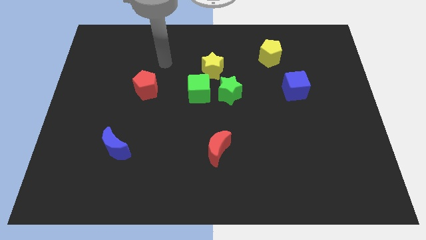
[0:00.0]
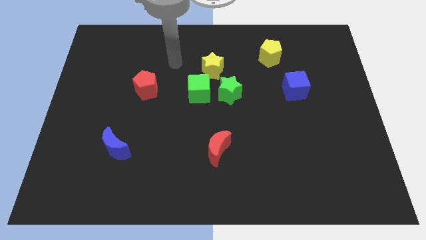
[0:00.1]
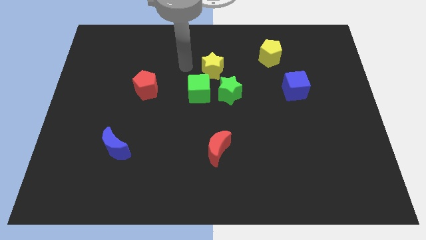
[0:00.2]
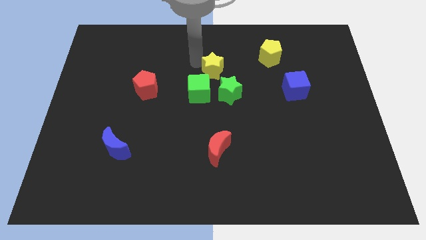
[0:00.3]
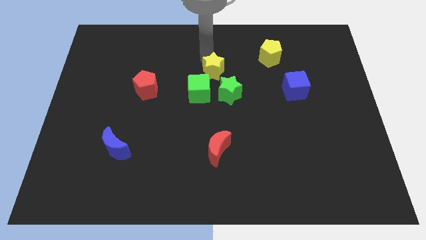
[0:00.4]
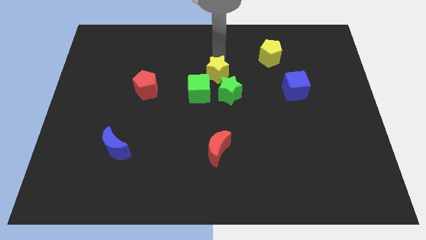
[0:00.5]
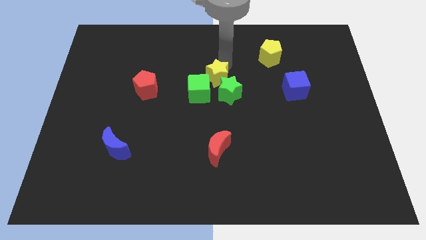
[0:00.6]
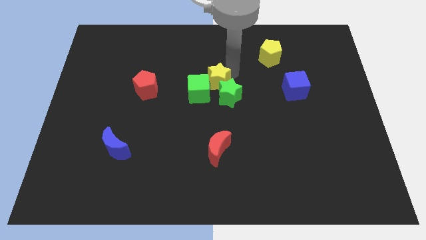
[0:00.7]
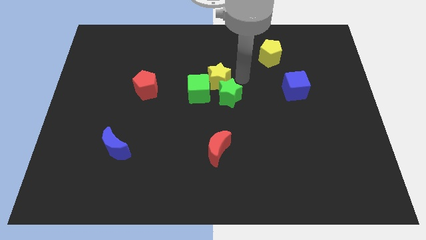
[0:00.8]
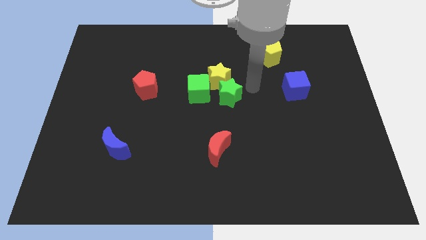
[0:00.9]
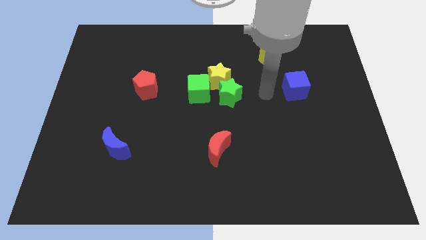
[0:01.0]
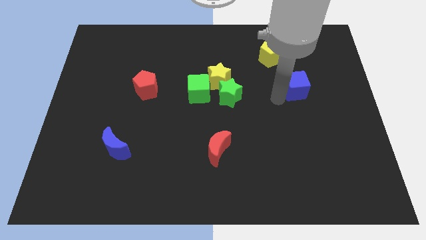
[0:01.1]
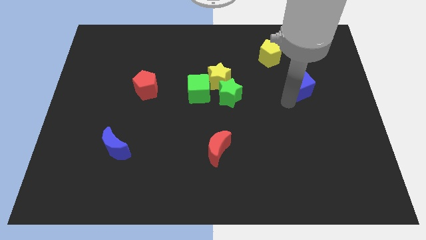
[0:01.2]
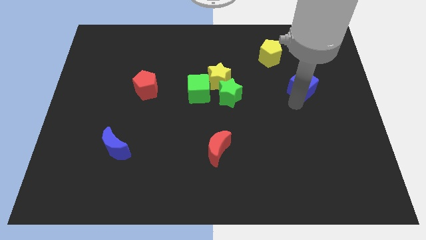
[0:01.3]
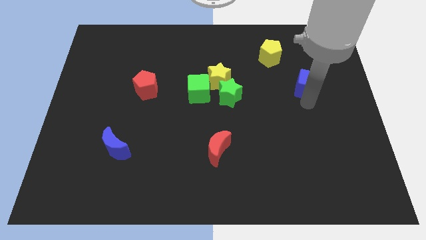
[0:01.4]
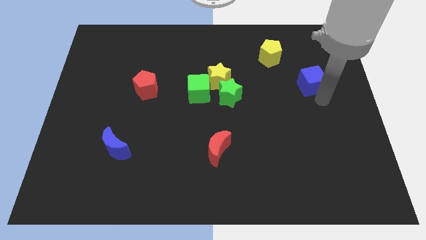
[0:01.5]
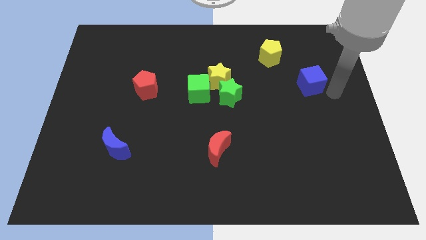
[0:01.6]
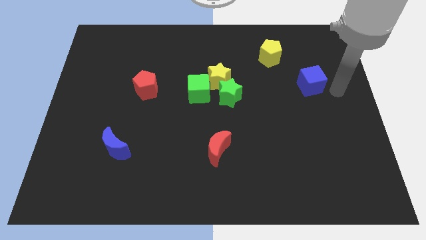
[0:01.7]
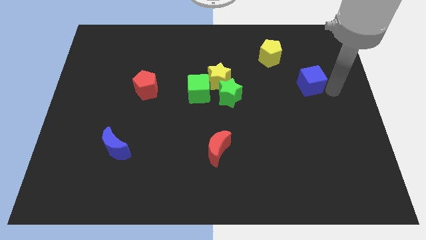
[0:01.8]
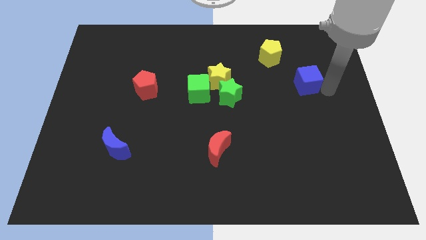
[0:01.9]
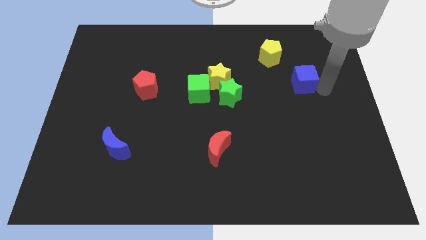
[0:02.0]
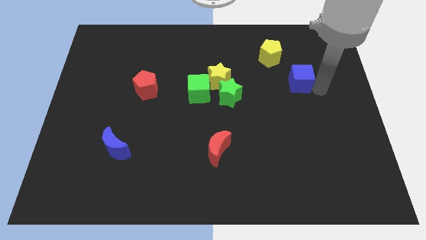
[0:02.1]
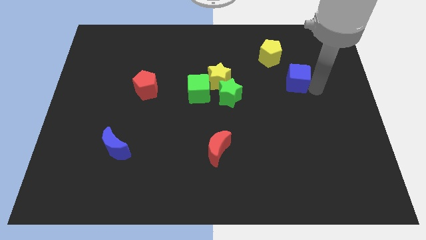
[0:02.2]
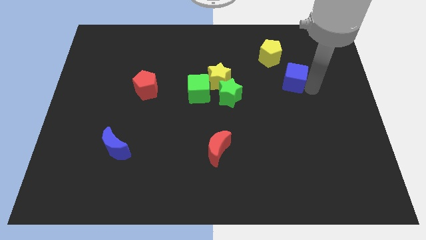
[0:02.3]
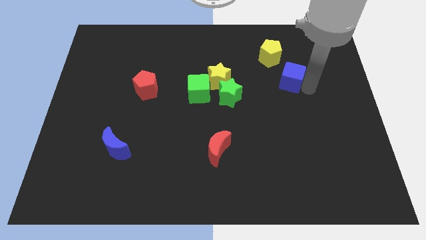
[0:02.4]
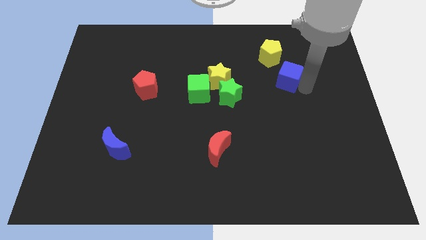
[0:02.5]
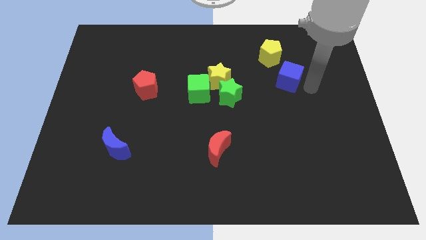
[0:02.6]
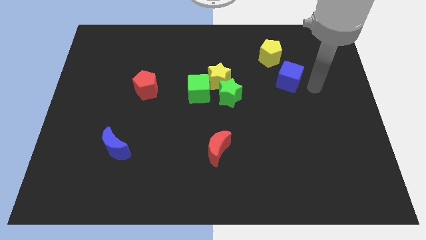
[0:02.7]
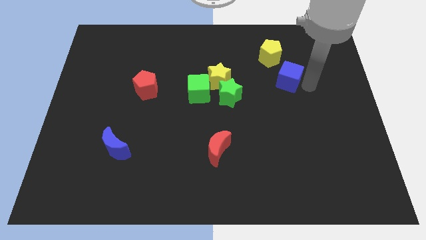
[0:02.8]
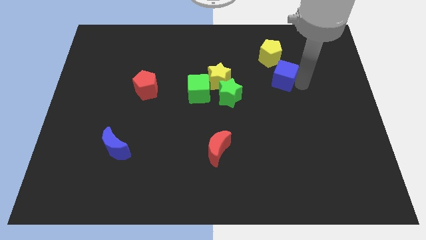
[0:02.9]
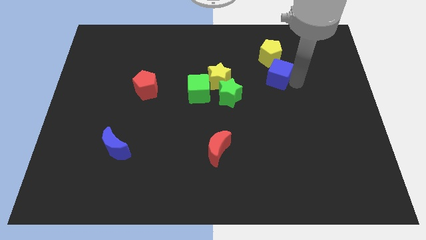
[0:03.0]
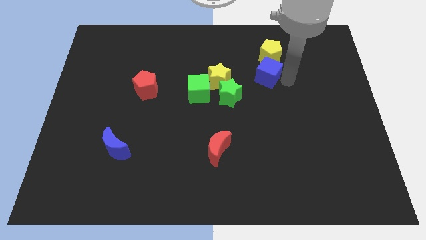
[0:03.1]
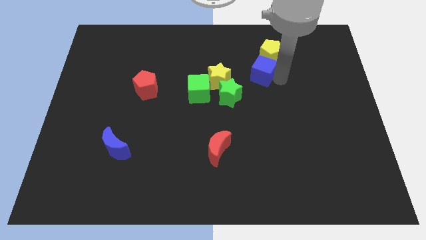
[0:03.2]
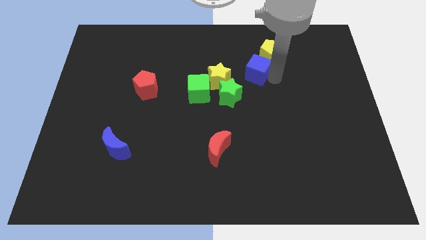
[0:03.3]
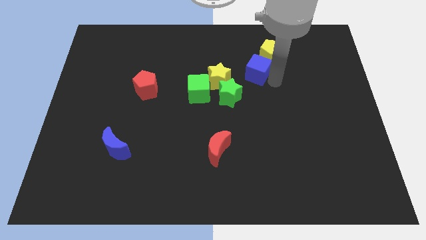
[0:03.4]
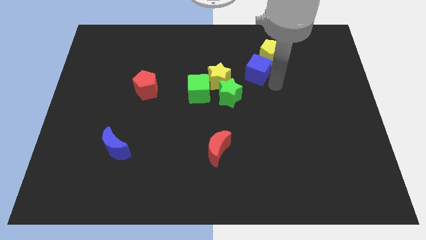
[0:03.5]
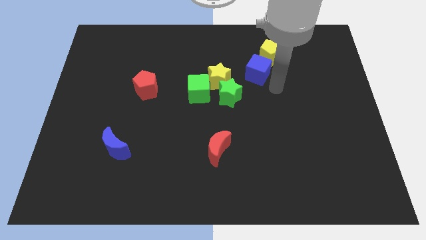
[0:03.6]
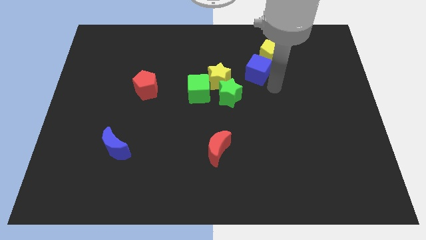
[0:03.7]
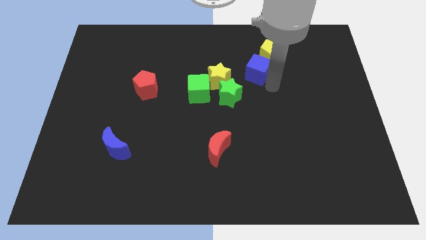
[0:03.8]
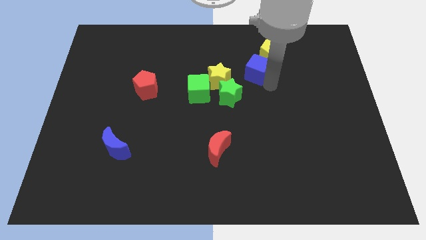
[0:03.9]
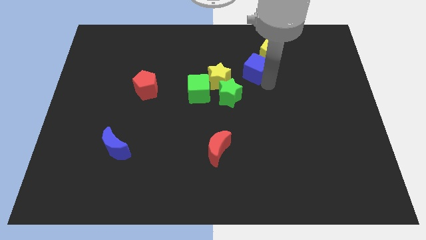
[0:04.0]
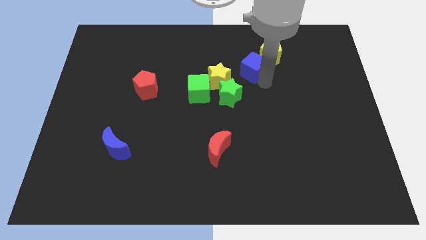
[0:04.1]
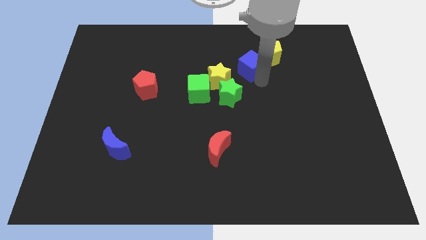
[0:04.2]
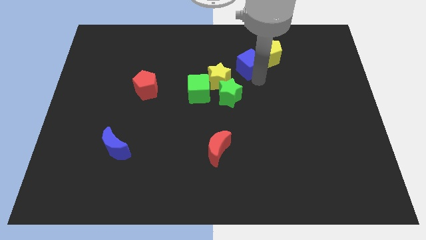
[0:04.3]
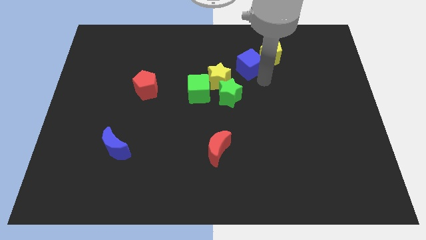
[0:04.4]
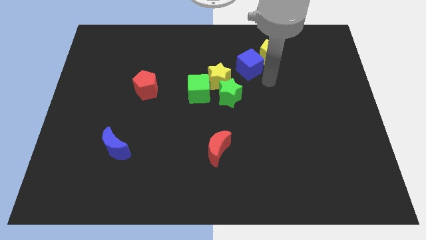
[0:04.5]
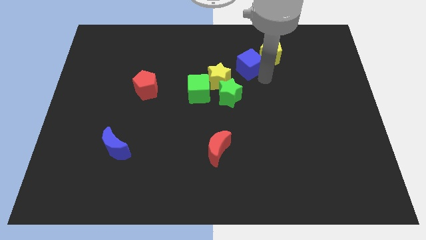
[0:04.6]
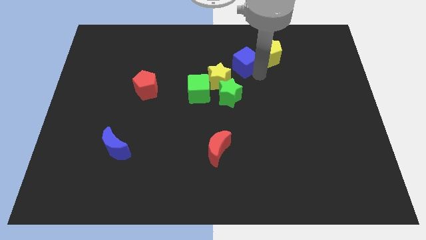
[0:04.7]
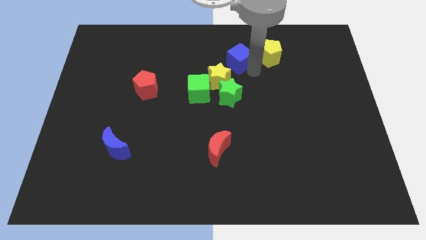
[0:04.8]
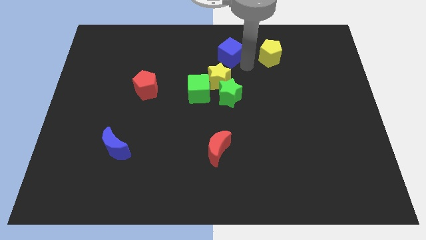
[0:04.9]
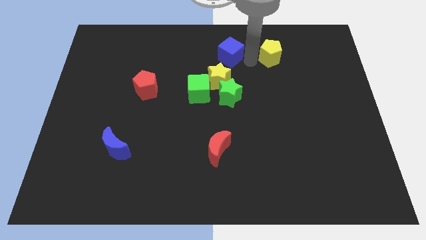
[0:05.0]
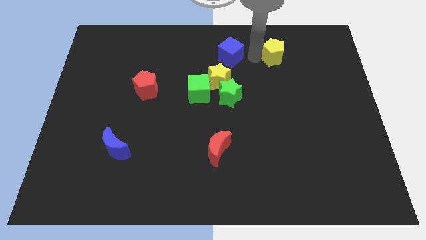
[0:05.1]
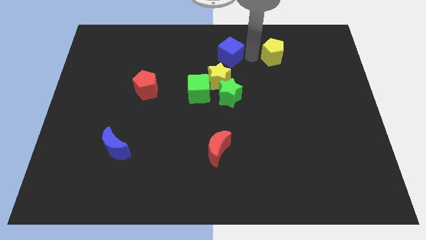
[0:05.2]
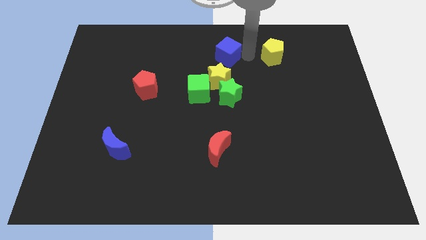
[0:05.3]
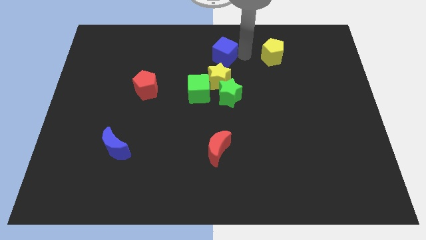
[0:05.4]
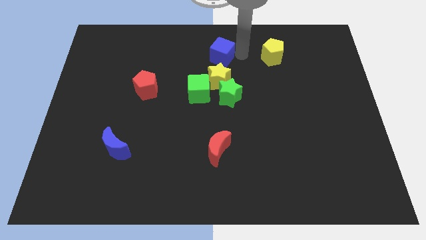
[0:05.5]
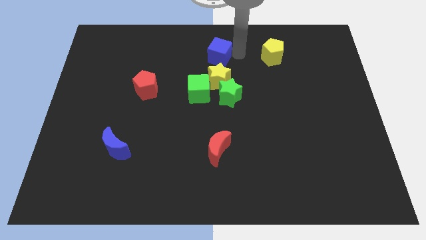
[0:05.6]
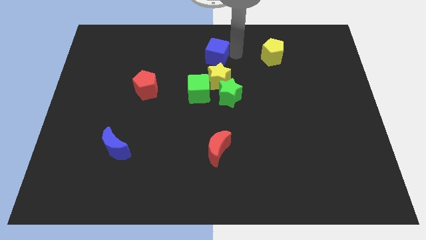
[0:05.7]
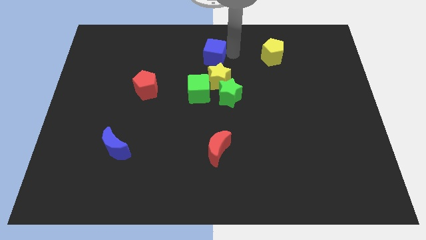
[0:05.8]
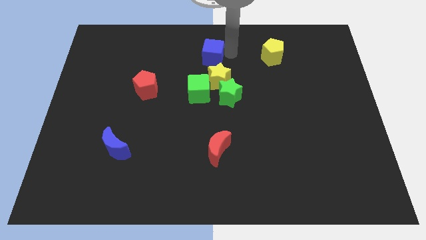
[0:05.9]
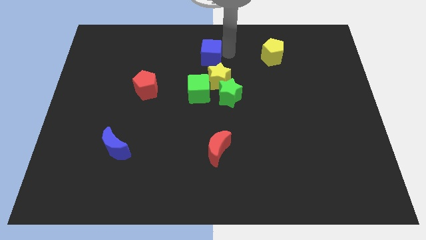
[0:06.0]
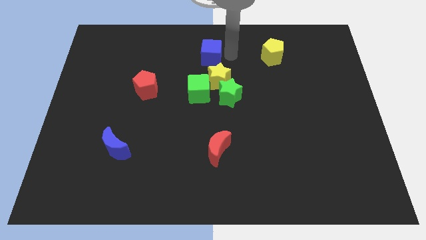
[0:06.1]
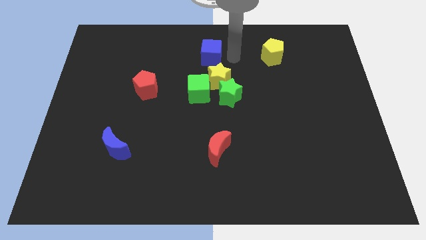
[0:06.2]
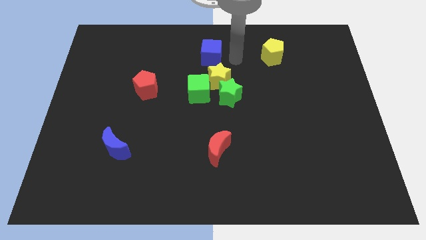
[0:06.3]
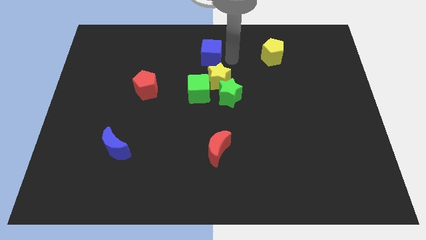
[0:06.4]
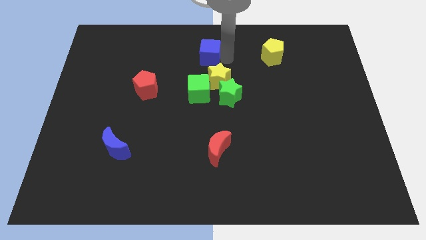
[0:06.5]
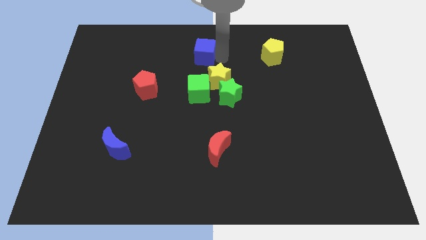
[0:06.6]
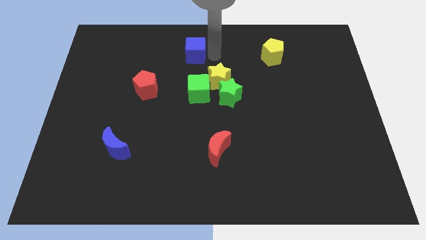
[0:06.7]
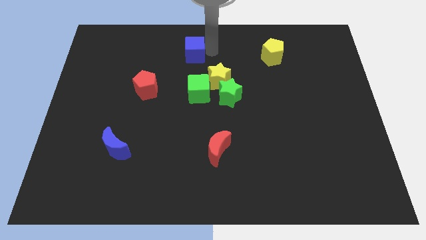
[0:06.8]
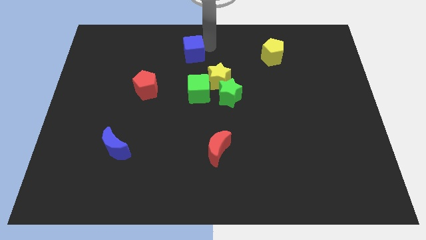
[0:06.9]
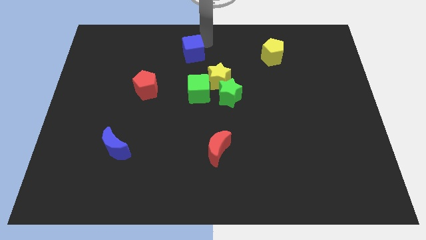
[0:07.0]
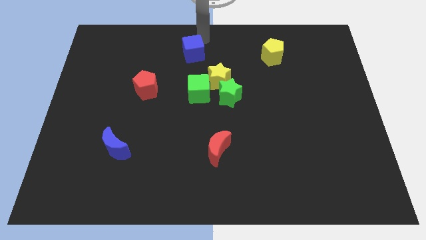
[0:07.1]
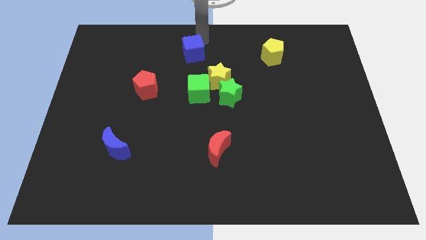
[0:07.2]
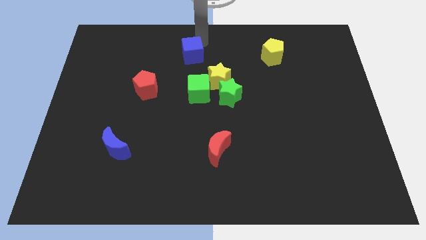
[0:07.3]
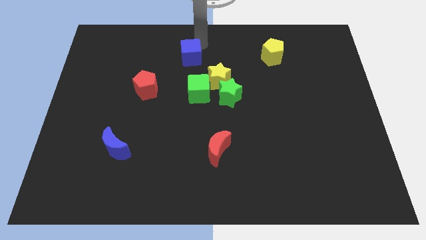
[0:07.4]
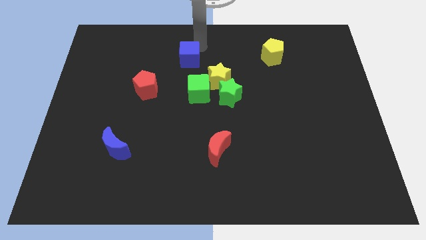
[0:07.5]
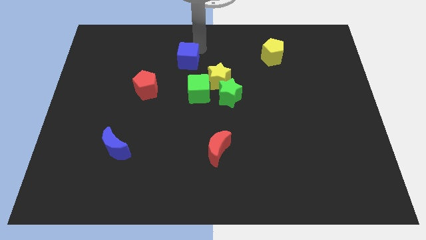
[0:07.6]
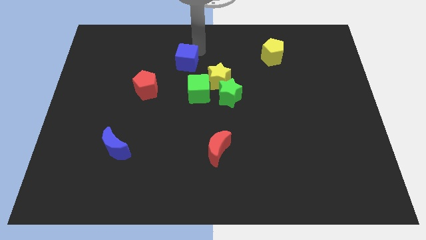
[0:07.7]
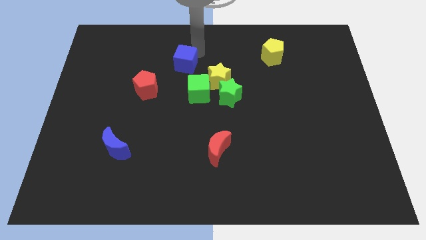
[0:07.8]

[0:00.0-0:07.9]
put the blue cube to the top left of the green cube
